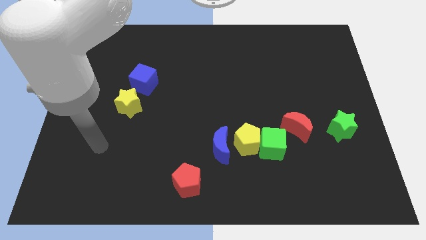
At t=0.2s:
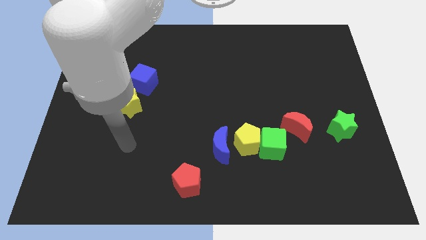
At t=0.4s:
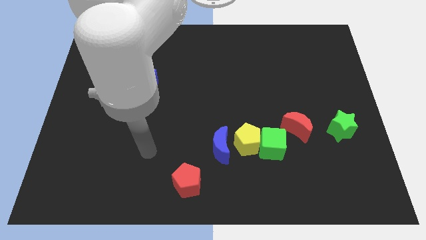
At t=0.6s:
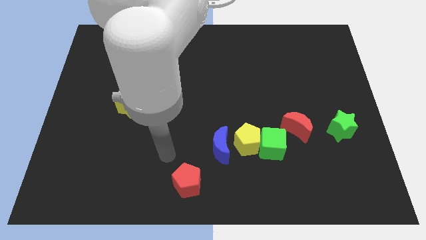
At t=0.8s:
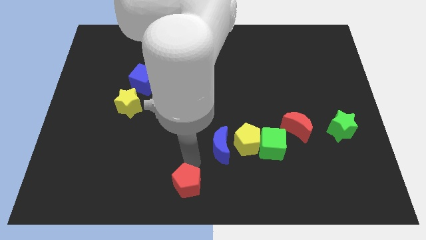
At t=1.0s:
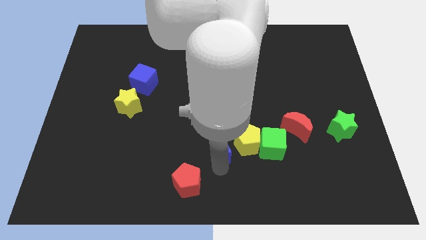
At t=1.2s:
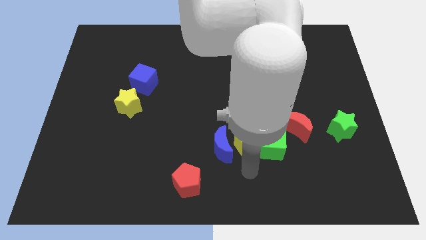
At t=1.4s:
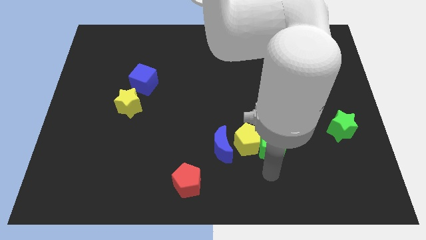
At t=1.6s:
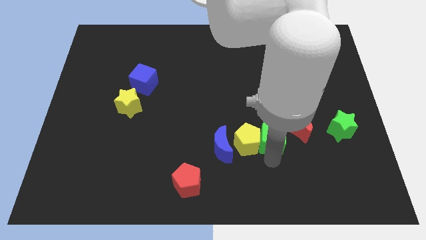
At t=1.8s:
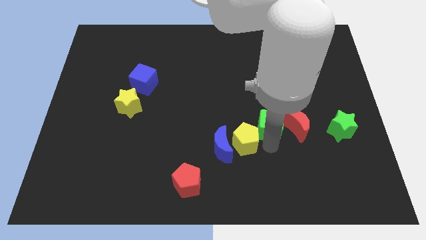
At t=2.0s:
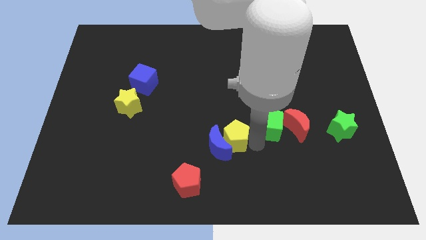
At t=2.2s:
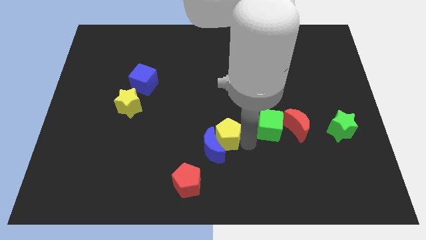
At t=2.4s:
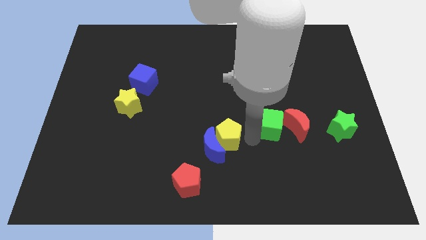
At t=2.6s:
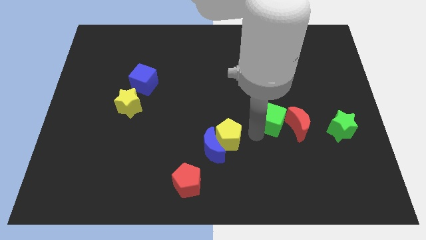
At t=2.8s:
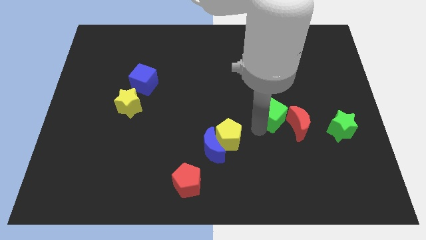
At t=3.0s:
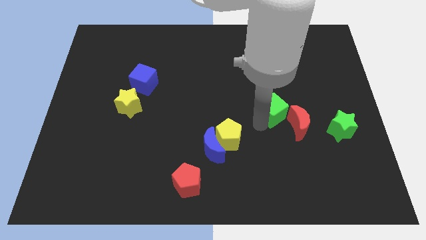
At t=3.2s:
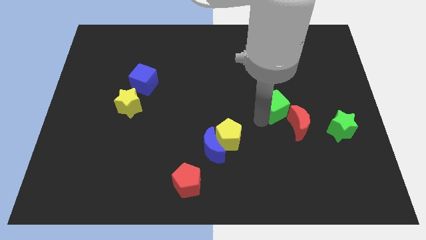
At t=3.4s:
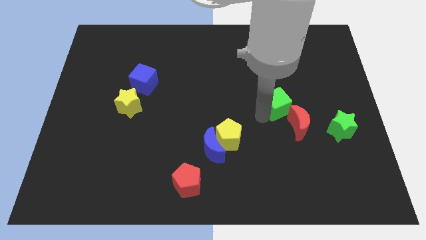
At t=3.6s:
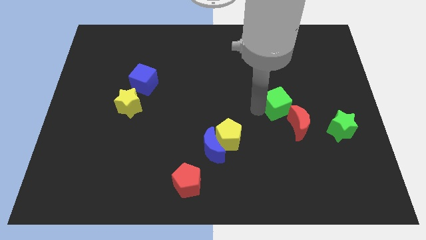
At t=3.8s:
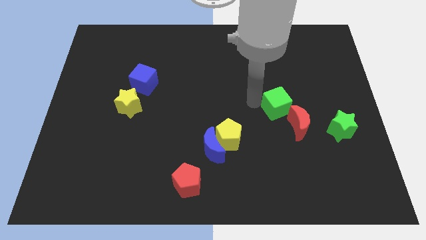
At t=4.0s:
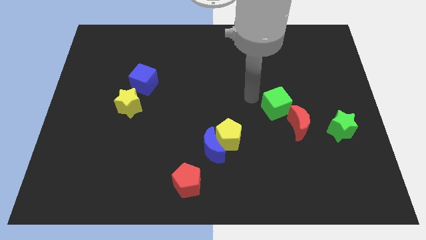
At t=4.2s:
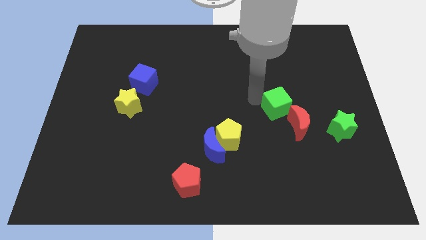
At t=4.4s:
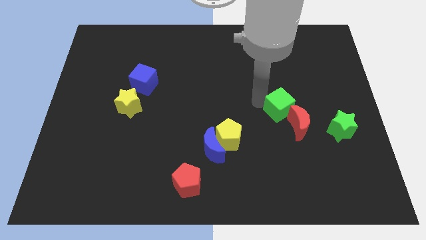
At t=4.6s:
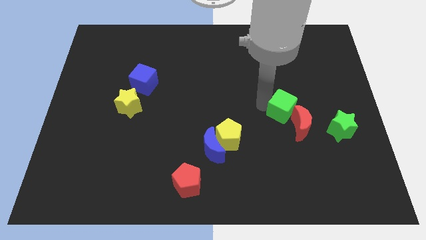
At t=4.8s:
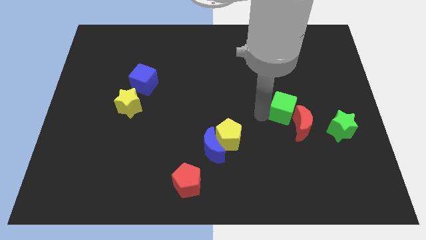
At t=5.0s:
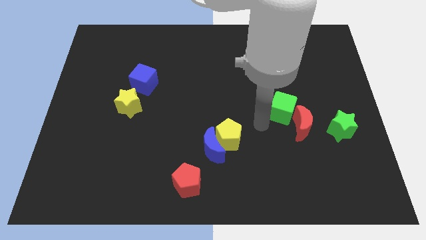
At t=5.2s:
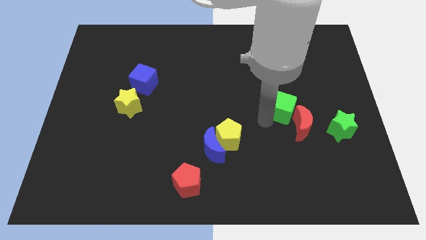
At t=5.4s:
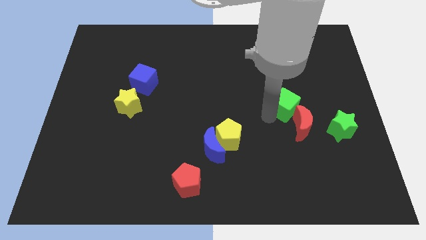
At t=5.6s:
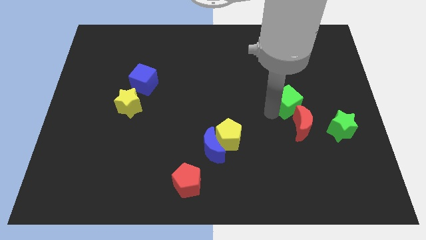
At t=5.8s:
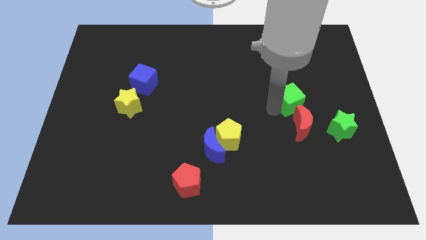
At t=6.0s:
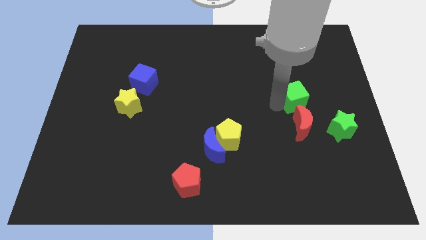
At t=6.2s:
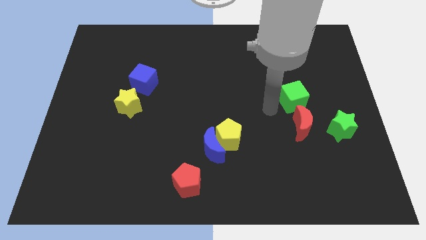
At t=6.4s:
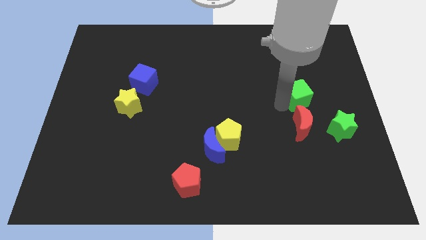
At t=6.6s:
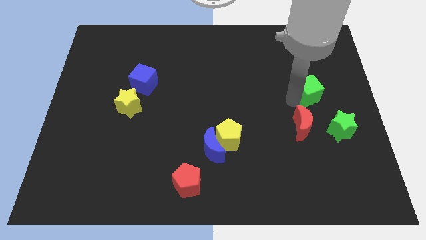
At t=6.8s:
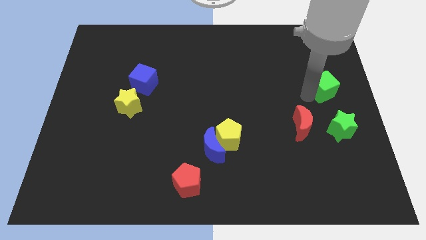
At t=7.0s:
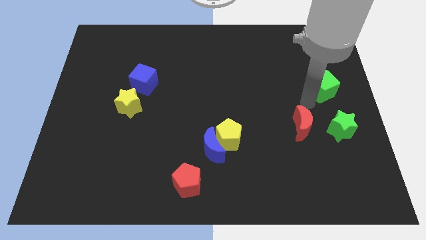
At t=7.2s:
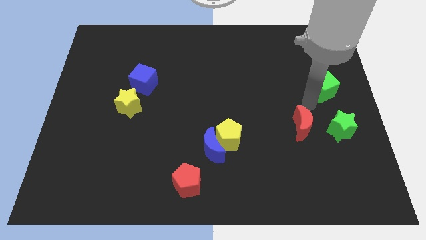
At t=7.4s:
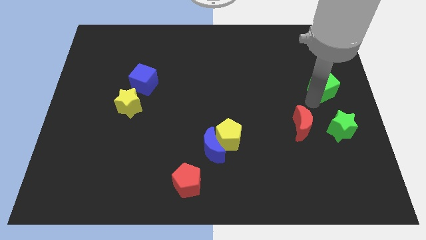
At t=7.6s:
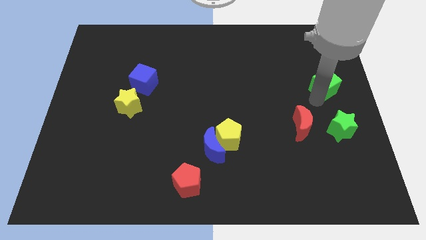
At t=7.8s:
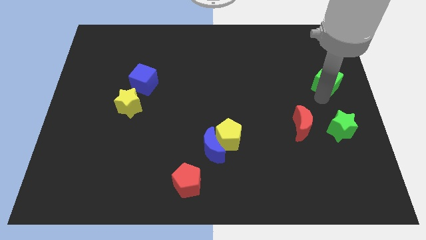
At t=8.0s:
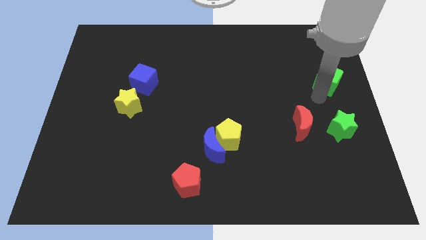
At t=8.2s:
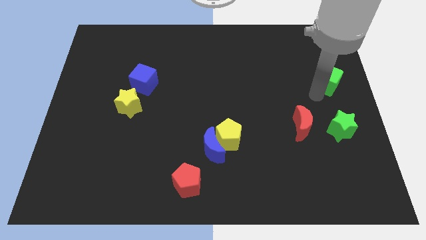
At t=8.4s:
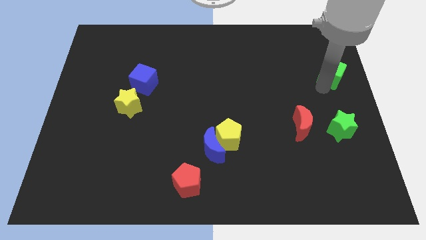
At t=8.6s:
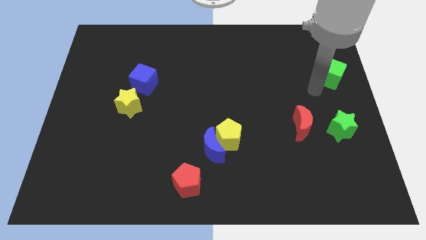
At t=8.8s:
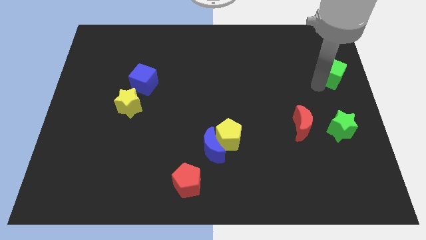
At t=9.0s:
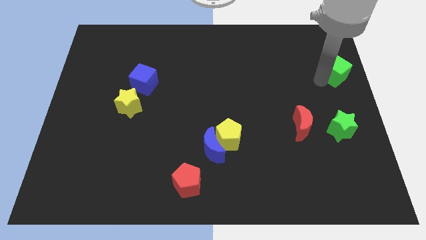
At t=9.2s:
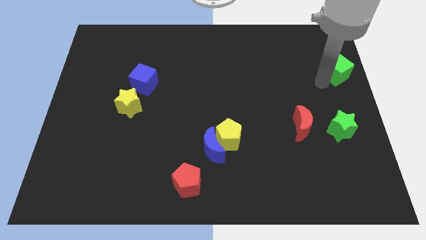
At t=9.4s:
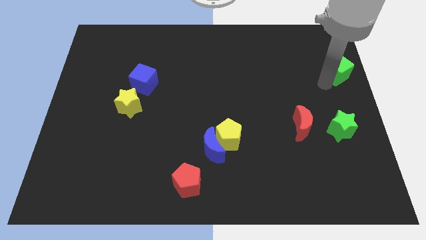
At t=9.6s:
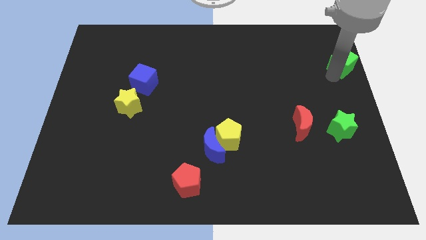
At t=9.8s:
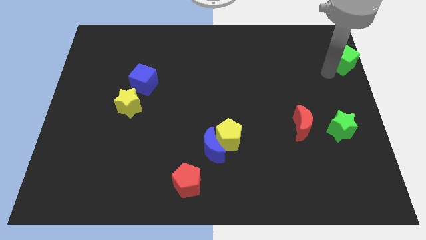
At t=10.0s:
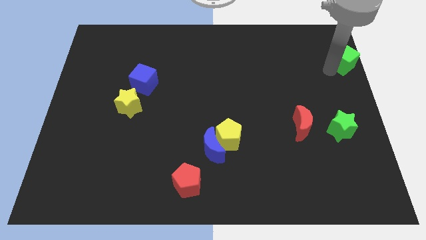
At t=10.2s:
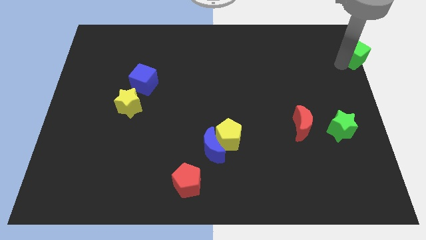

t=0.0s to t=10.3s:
move the green cube to the top right corner

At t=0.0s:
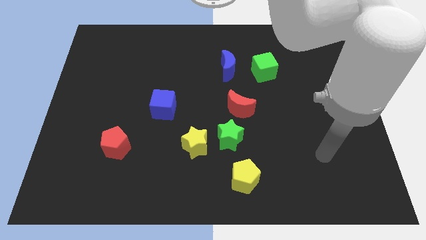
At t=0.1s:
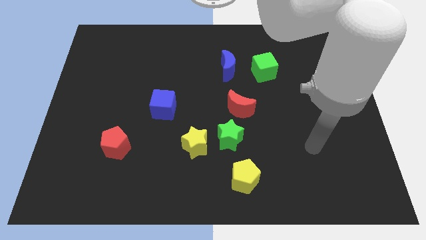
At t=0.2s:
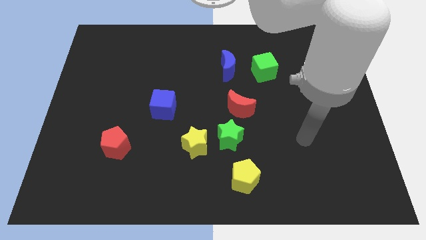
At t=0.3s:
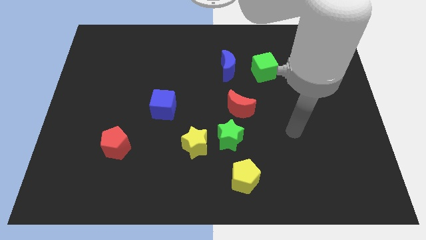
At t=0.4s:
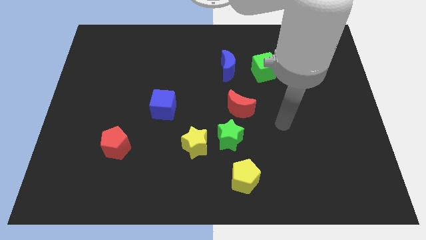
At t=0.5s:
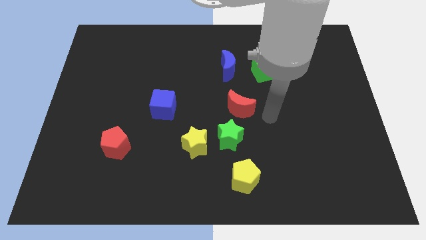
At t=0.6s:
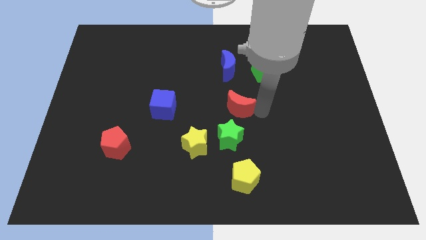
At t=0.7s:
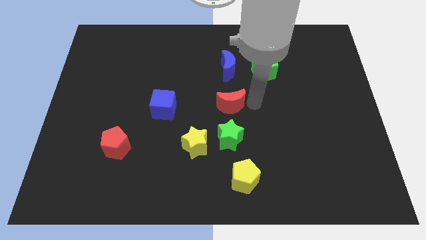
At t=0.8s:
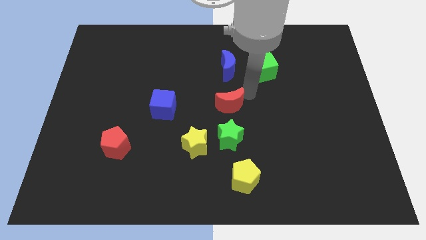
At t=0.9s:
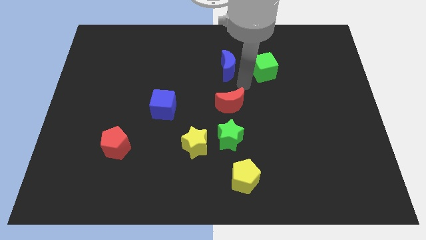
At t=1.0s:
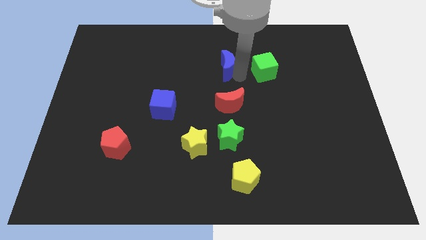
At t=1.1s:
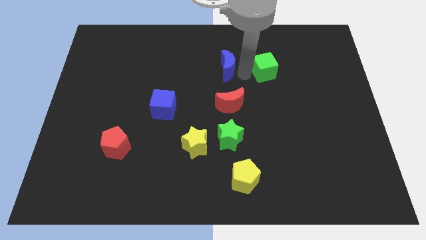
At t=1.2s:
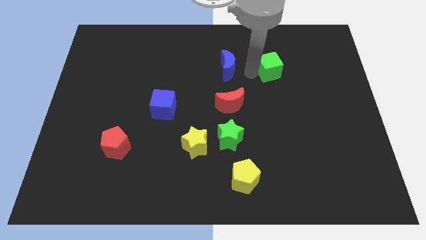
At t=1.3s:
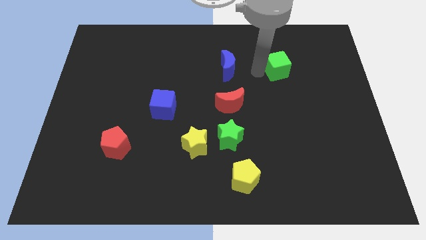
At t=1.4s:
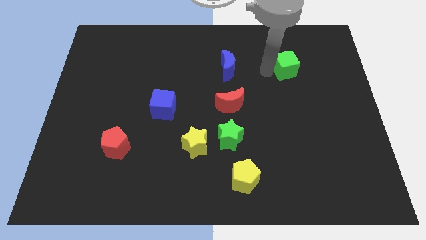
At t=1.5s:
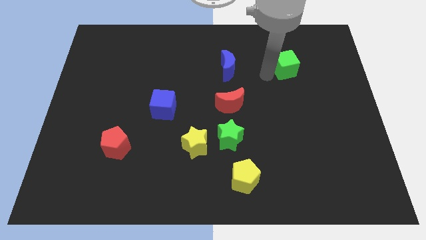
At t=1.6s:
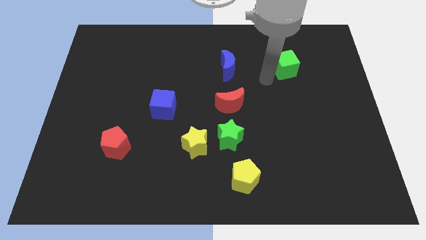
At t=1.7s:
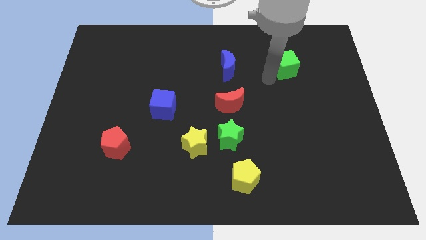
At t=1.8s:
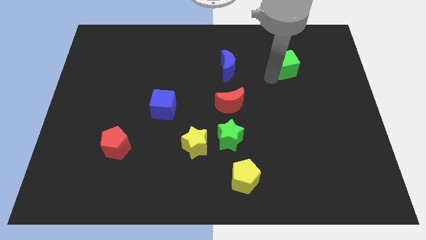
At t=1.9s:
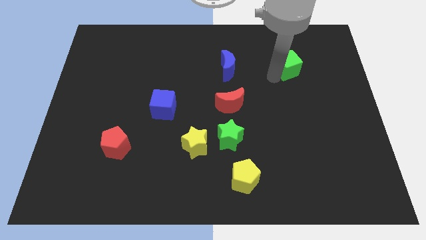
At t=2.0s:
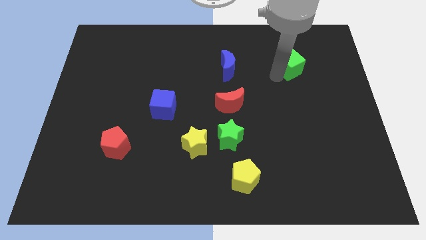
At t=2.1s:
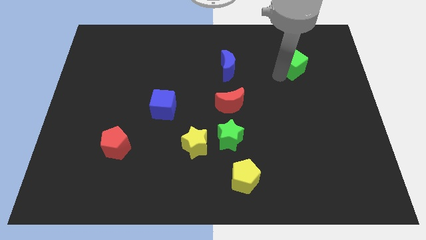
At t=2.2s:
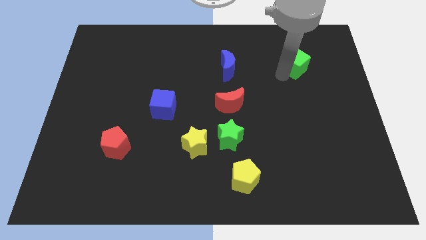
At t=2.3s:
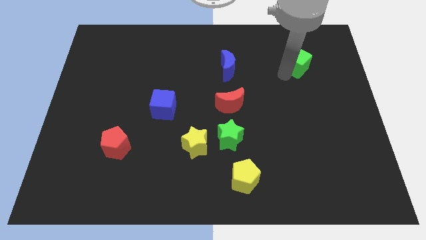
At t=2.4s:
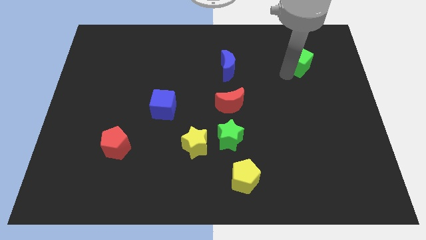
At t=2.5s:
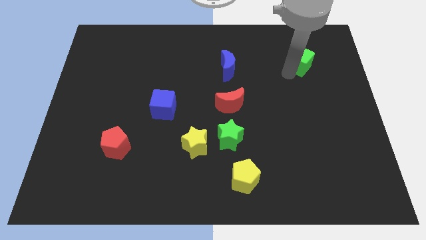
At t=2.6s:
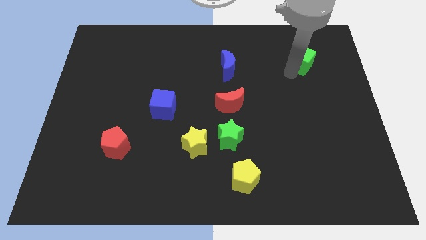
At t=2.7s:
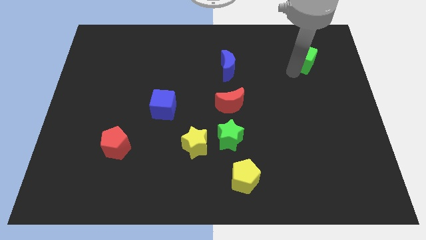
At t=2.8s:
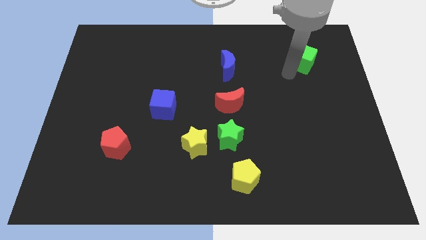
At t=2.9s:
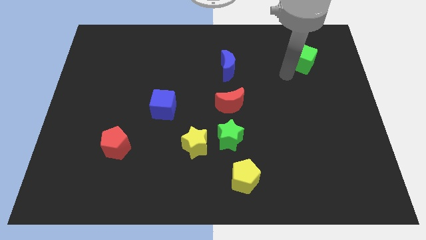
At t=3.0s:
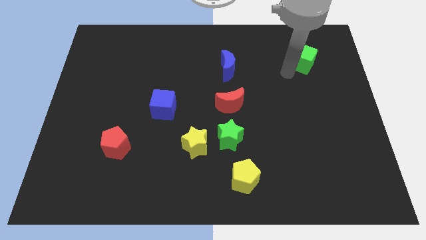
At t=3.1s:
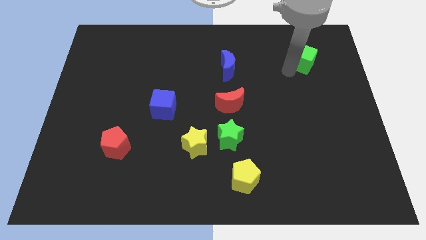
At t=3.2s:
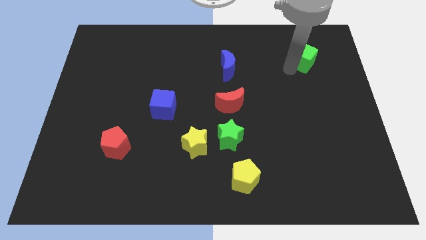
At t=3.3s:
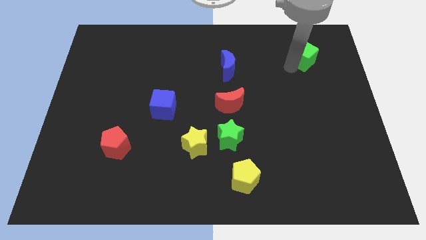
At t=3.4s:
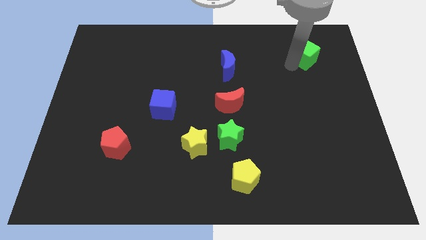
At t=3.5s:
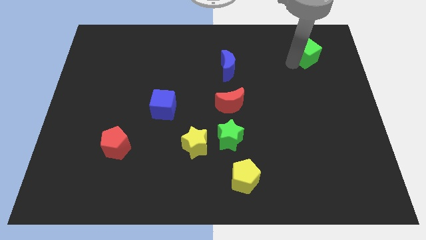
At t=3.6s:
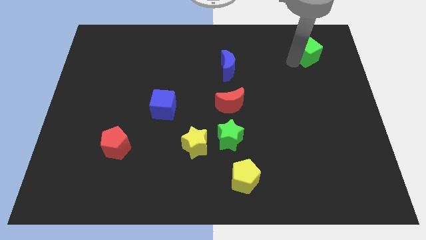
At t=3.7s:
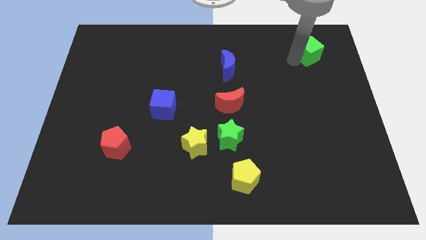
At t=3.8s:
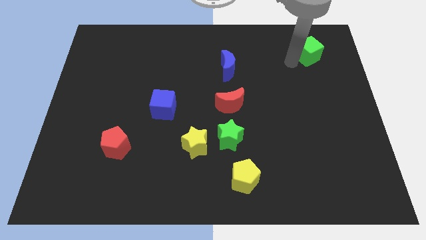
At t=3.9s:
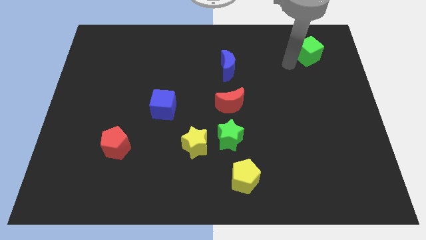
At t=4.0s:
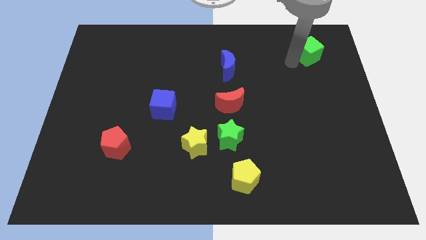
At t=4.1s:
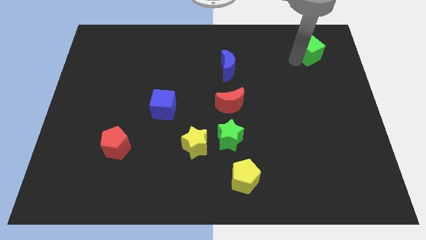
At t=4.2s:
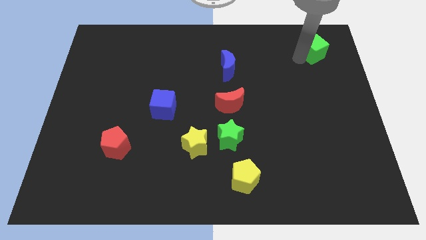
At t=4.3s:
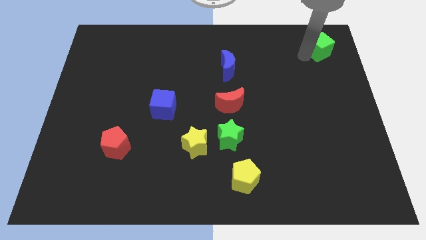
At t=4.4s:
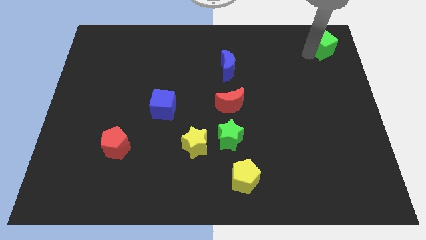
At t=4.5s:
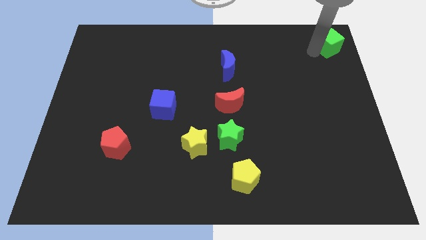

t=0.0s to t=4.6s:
put the green cube to the top right corner
